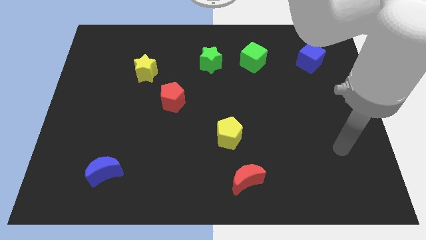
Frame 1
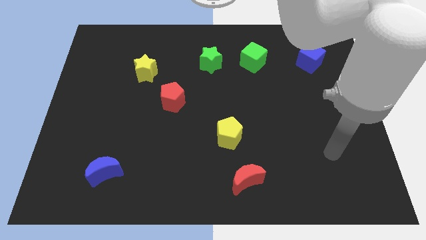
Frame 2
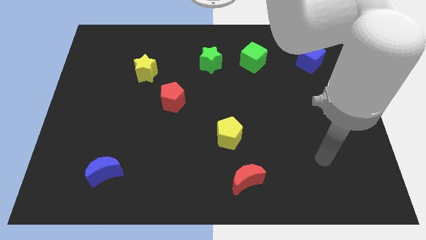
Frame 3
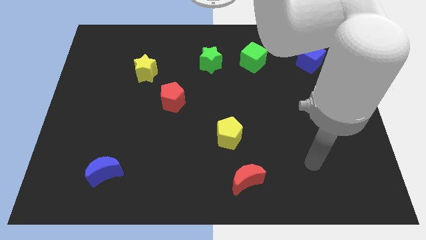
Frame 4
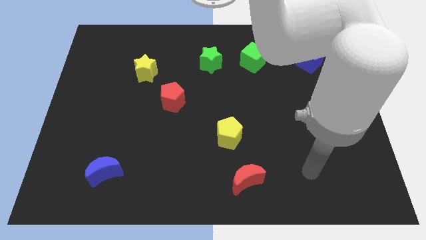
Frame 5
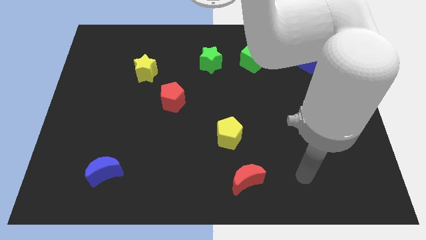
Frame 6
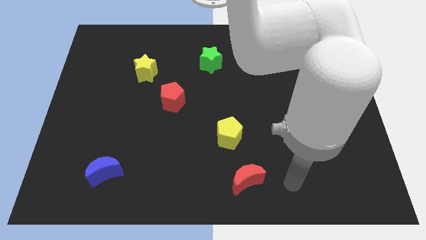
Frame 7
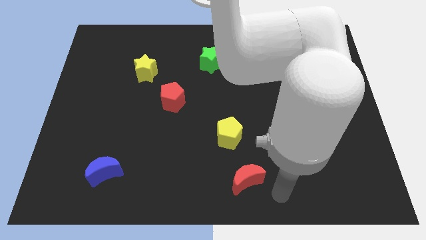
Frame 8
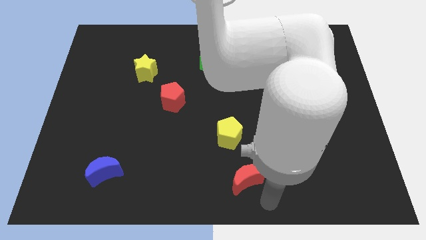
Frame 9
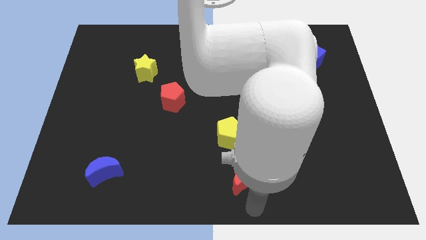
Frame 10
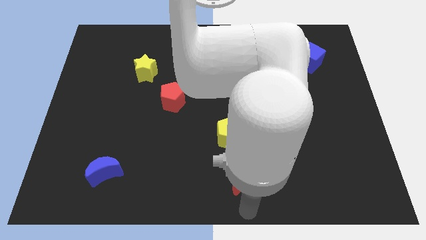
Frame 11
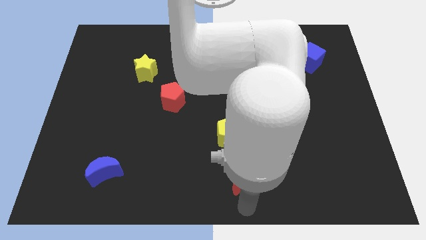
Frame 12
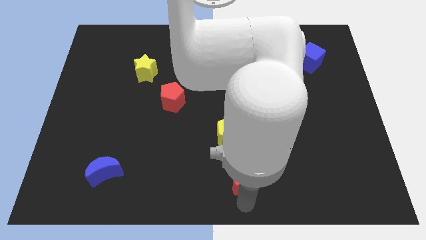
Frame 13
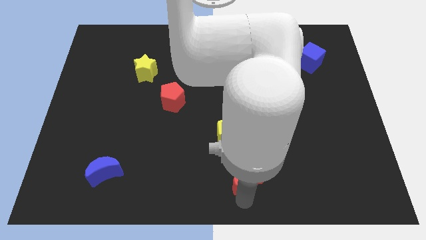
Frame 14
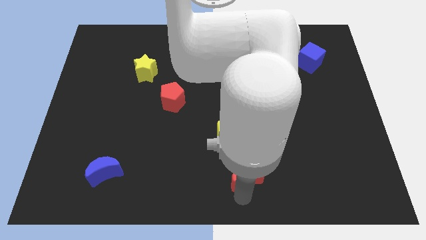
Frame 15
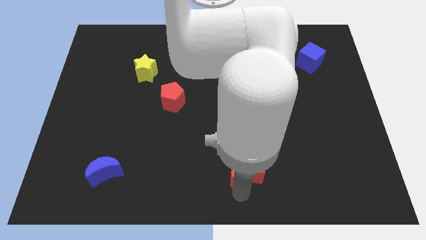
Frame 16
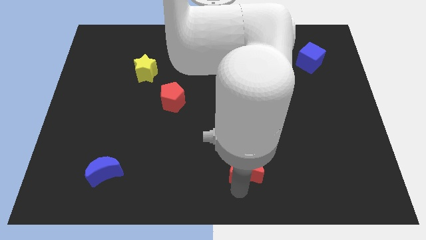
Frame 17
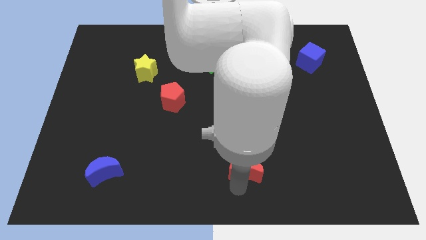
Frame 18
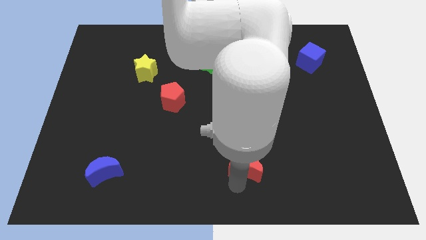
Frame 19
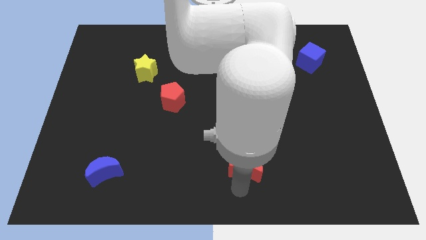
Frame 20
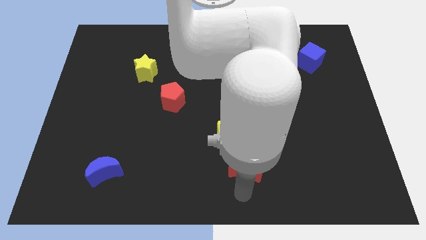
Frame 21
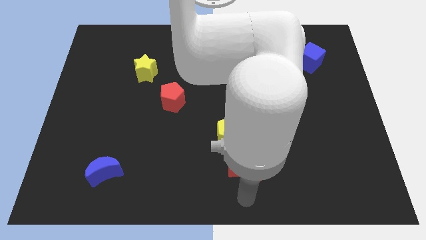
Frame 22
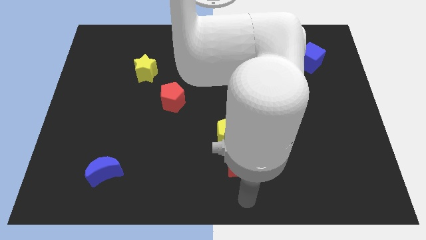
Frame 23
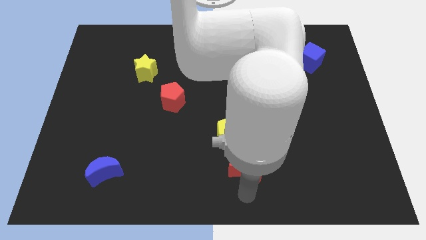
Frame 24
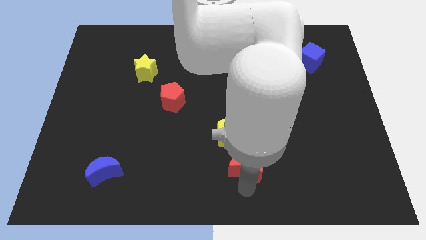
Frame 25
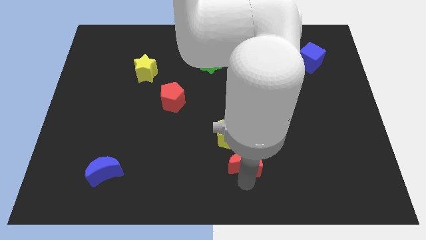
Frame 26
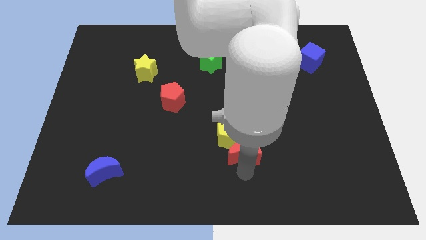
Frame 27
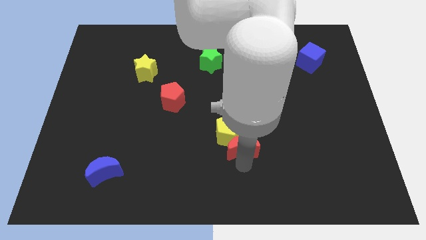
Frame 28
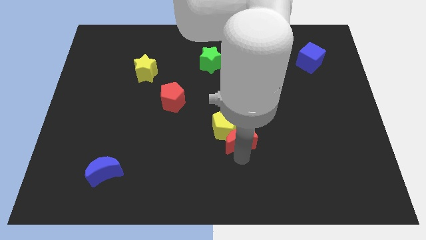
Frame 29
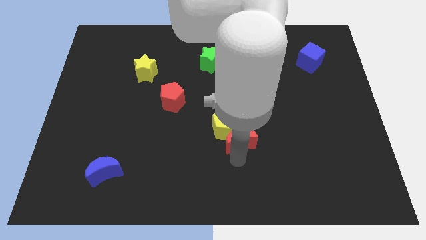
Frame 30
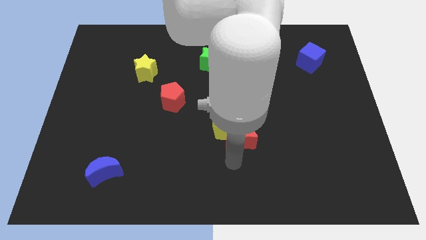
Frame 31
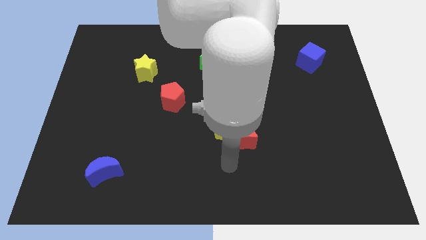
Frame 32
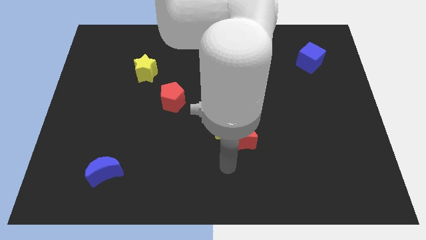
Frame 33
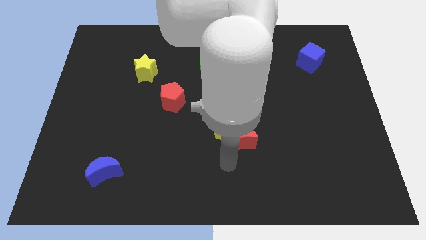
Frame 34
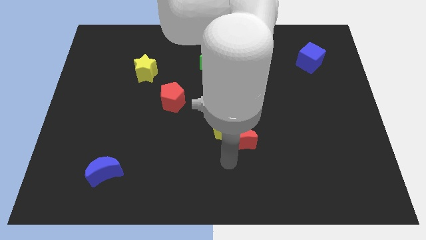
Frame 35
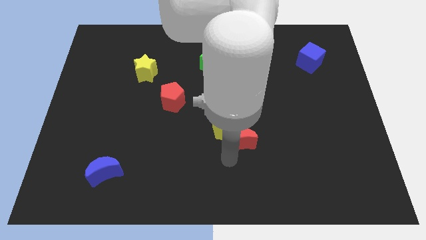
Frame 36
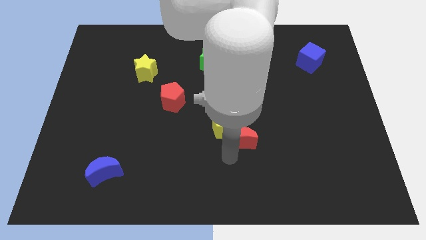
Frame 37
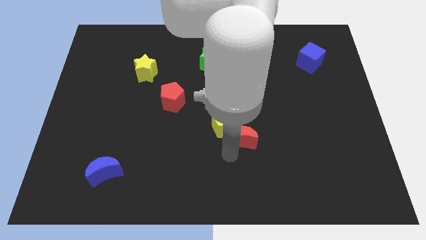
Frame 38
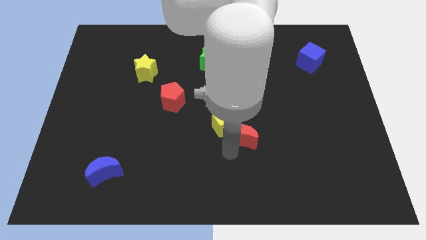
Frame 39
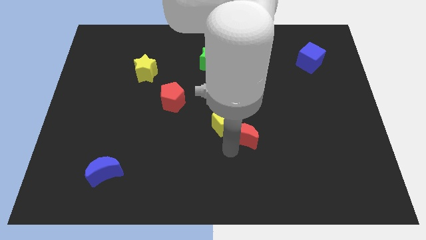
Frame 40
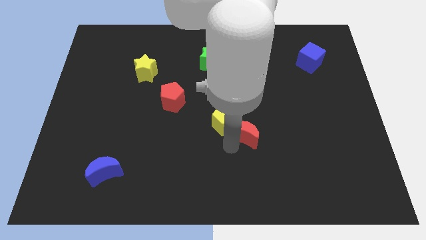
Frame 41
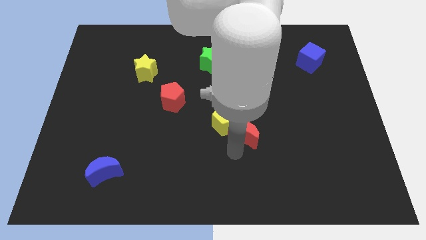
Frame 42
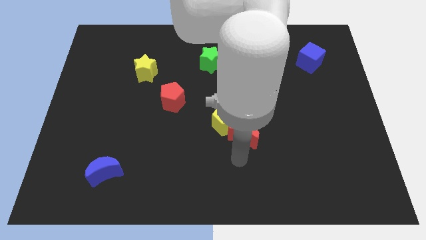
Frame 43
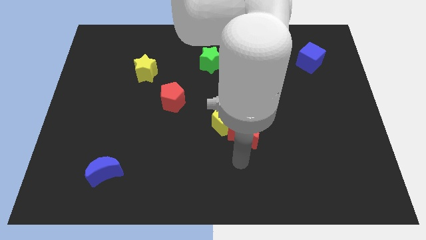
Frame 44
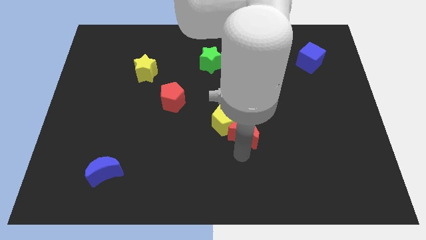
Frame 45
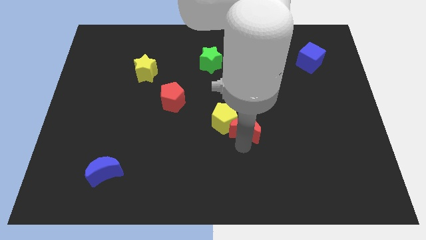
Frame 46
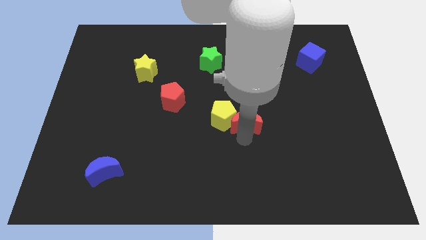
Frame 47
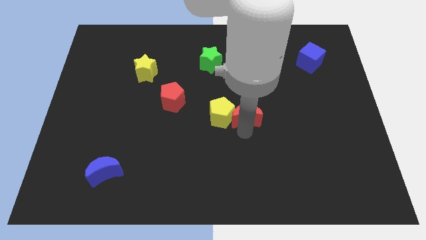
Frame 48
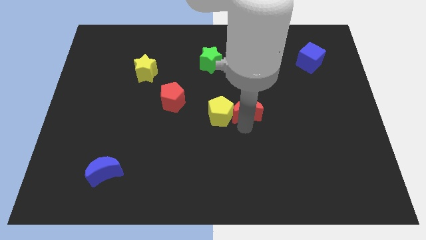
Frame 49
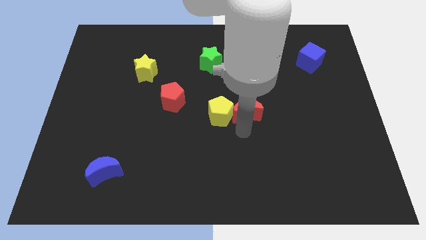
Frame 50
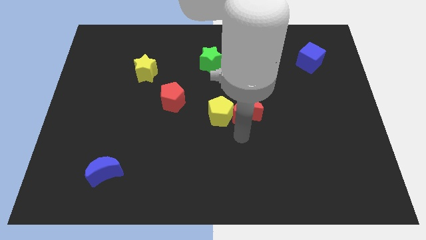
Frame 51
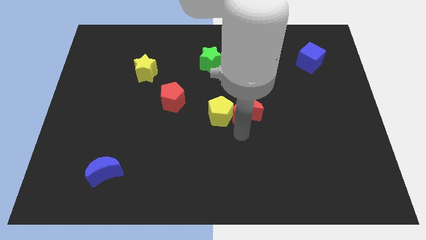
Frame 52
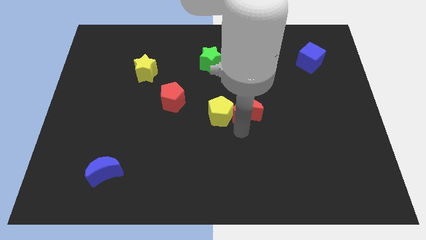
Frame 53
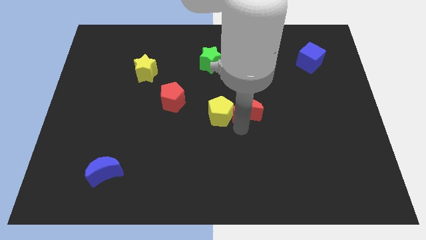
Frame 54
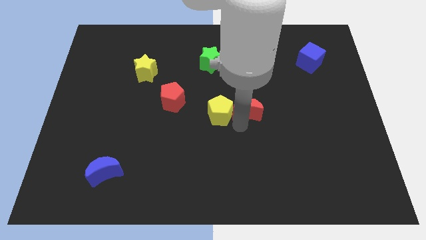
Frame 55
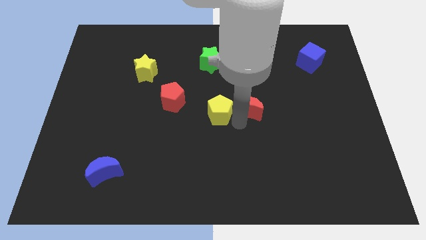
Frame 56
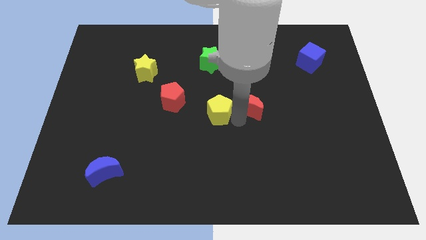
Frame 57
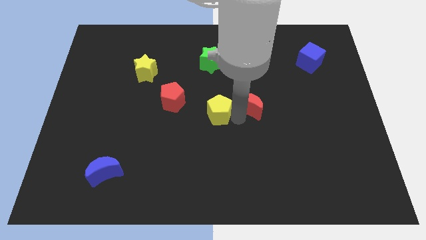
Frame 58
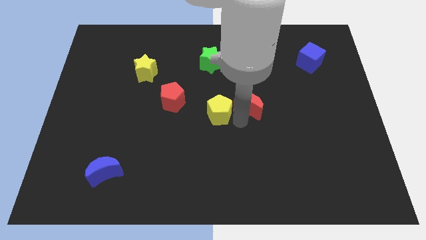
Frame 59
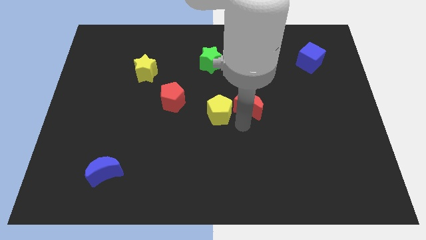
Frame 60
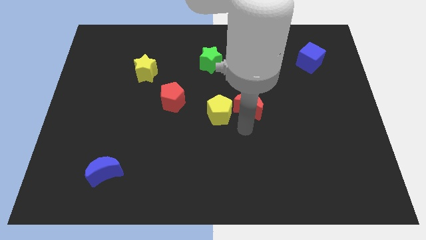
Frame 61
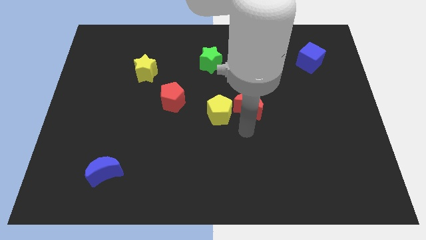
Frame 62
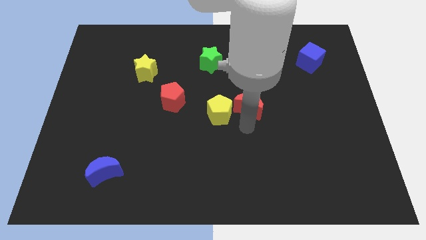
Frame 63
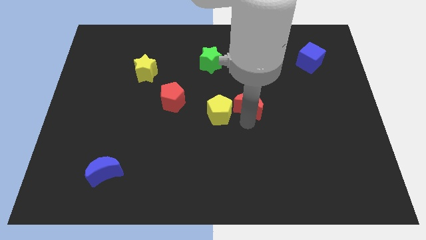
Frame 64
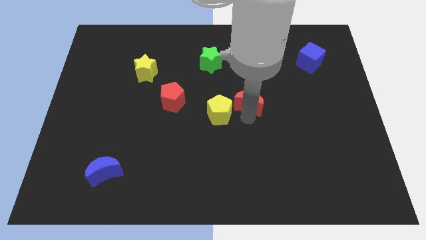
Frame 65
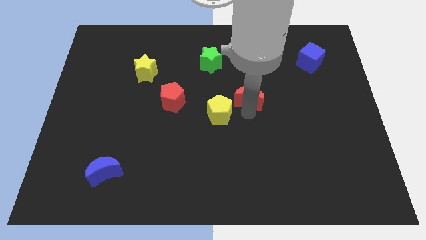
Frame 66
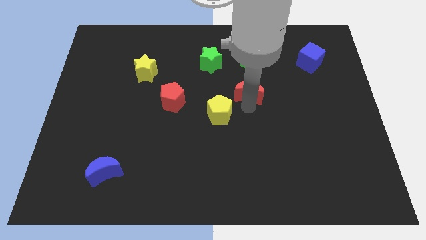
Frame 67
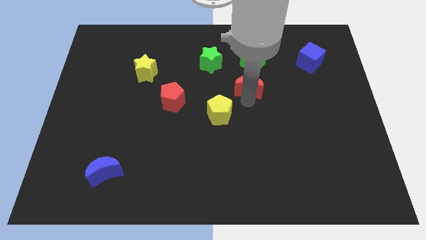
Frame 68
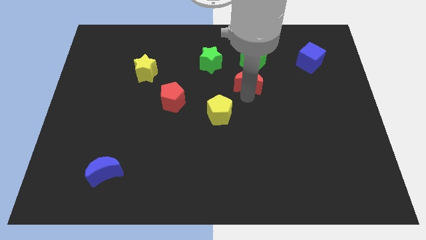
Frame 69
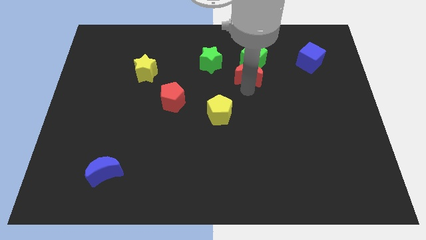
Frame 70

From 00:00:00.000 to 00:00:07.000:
move the red moon to the green cube
